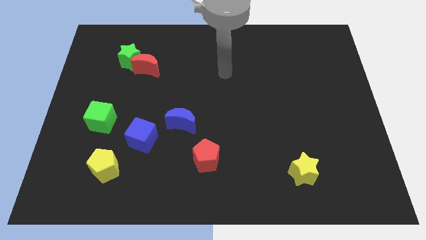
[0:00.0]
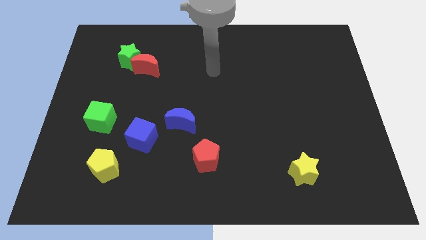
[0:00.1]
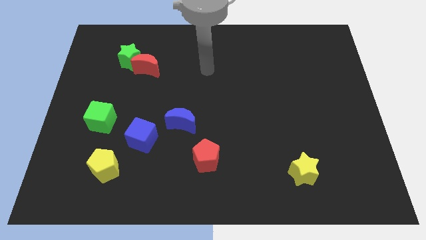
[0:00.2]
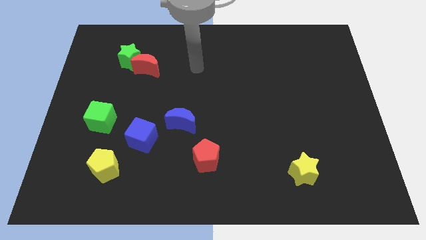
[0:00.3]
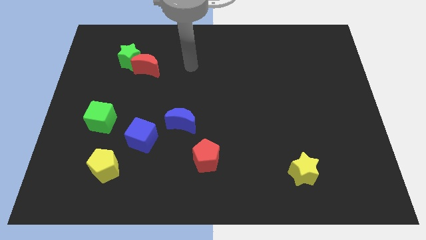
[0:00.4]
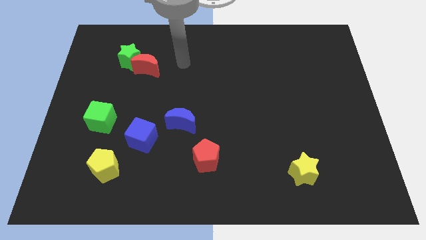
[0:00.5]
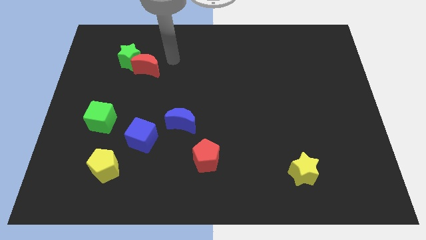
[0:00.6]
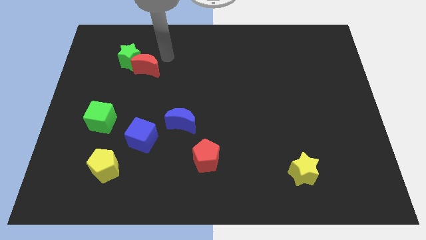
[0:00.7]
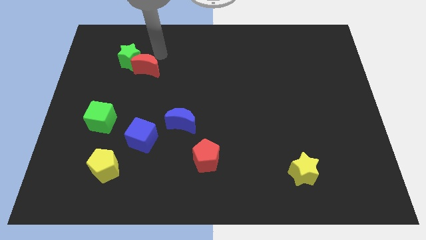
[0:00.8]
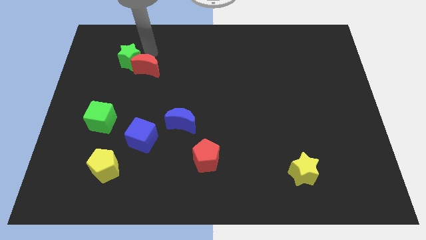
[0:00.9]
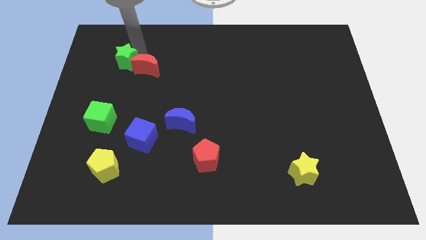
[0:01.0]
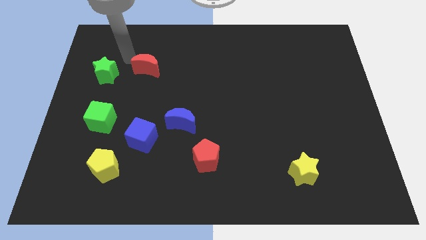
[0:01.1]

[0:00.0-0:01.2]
pull the red moon apart from the green star

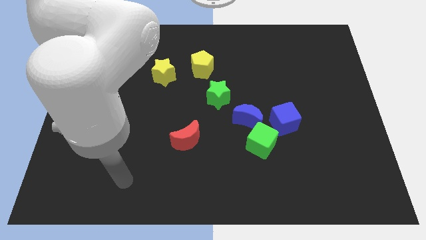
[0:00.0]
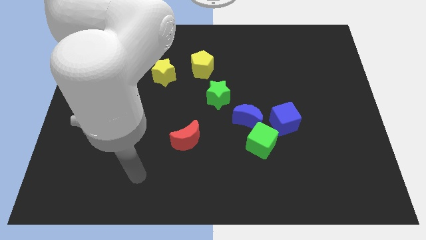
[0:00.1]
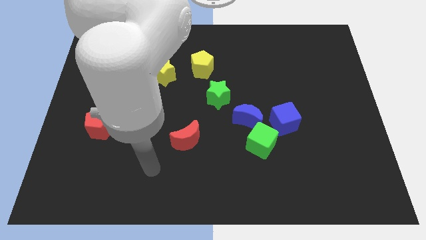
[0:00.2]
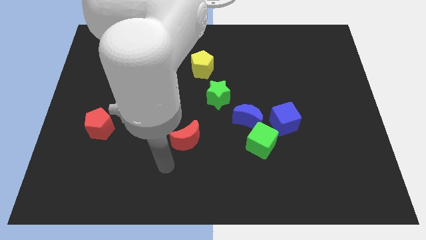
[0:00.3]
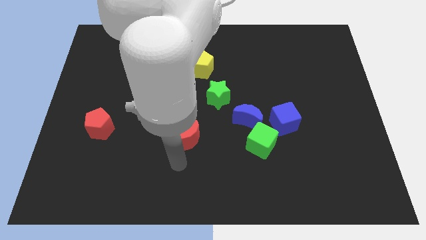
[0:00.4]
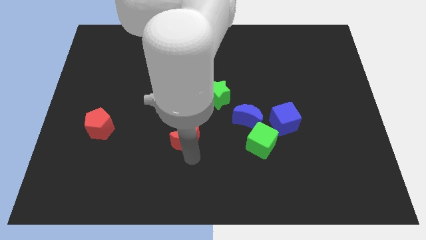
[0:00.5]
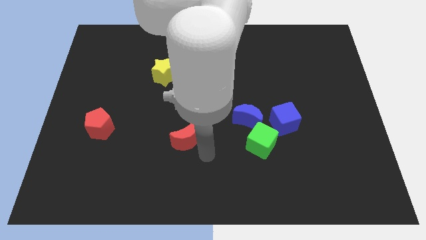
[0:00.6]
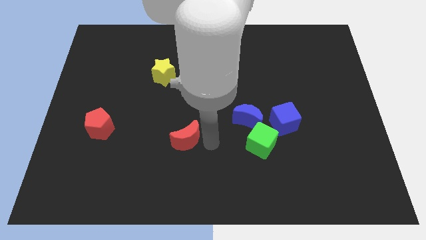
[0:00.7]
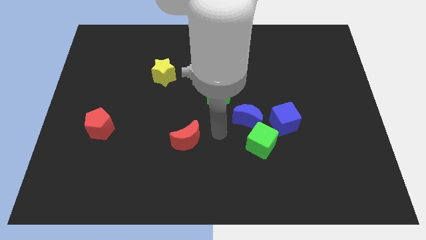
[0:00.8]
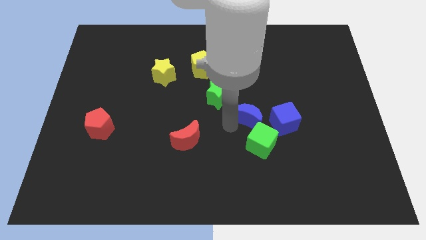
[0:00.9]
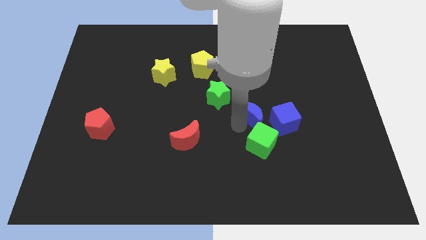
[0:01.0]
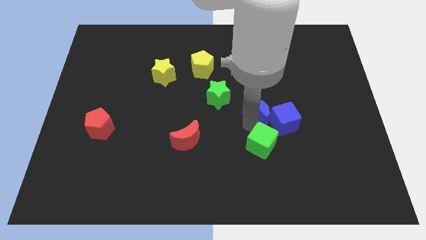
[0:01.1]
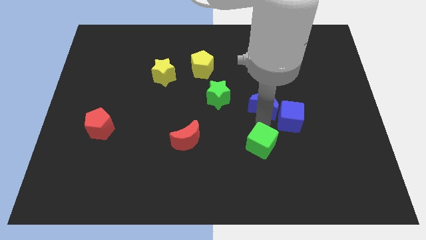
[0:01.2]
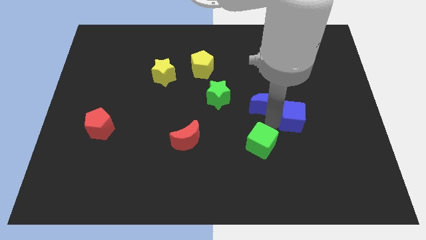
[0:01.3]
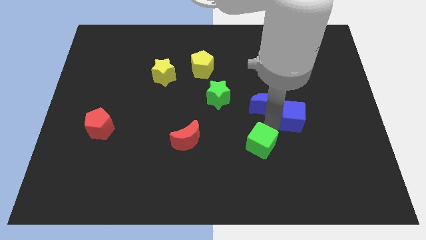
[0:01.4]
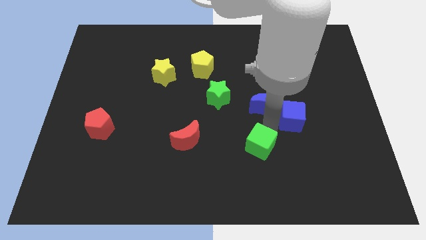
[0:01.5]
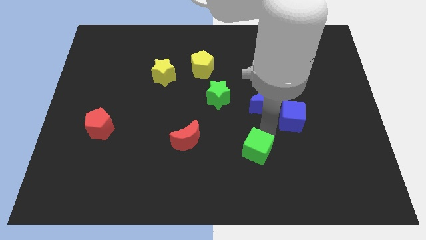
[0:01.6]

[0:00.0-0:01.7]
separate the green cube from the blue moon and blue cube

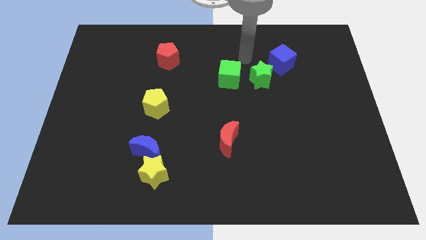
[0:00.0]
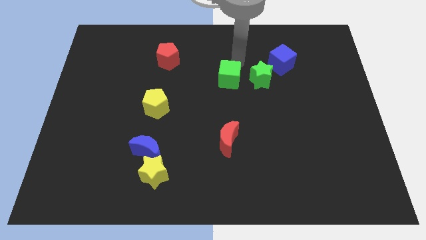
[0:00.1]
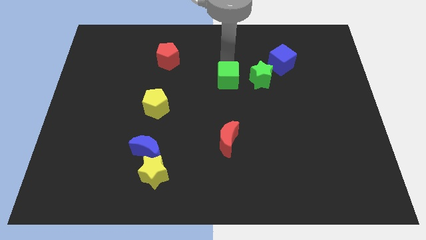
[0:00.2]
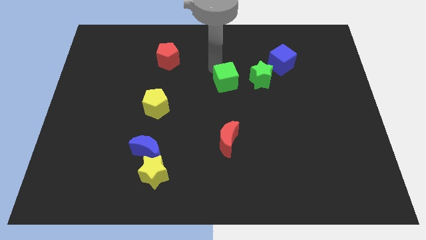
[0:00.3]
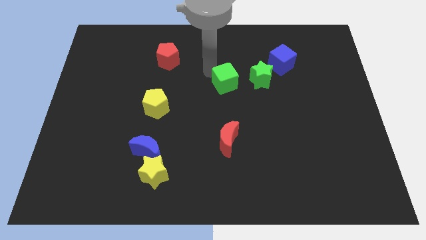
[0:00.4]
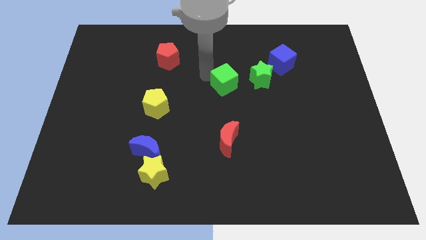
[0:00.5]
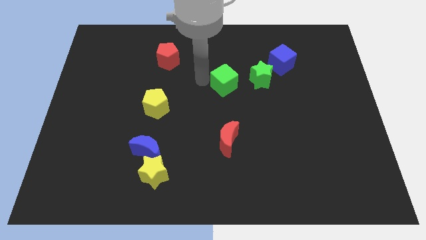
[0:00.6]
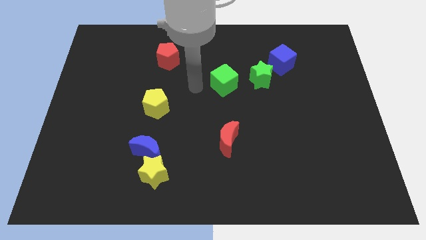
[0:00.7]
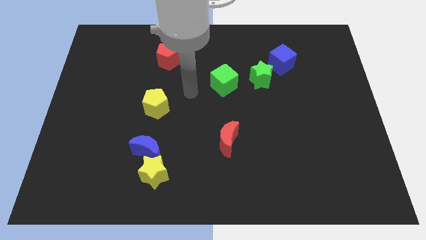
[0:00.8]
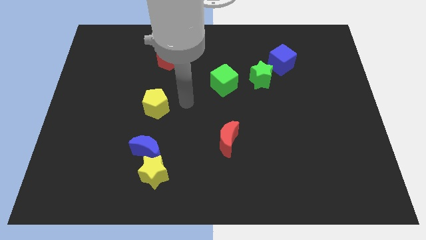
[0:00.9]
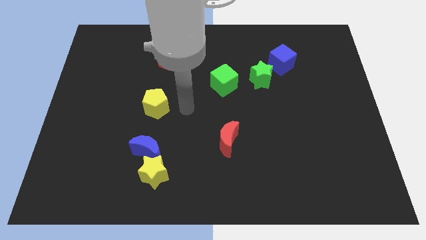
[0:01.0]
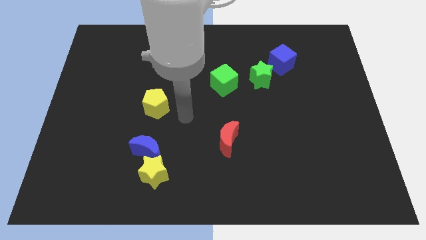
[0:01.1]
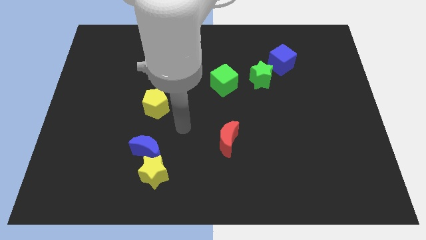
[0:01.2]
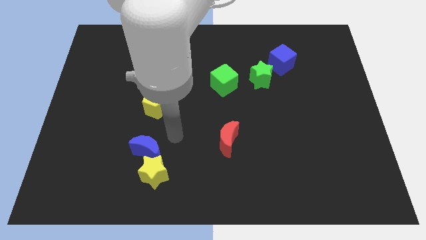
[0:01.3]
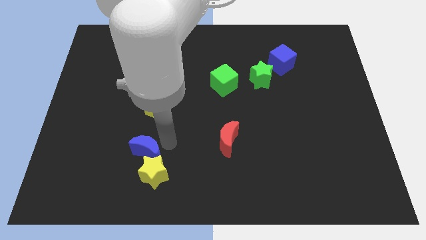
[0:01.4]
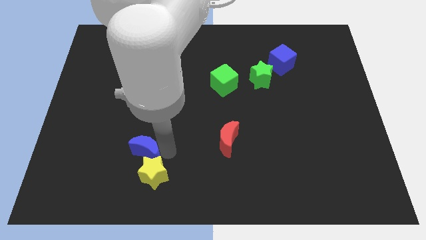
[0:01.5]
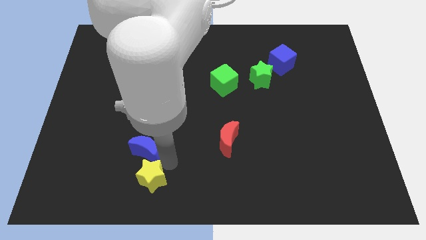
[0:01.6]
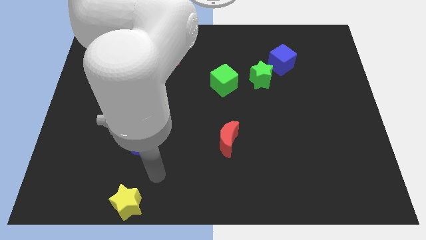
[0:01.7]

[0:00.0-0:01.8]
pull the blue moon apart from the yellow star

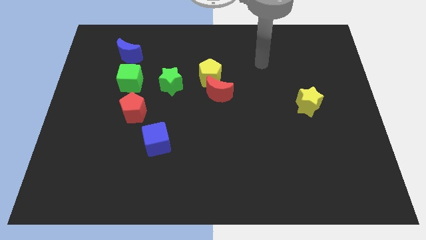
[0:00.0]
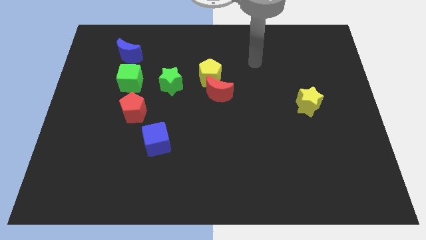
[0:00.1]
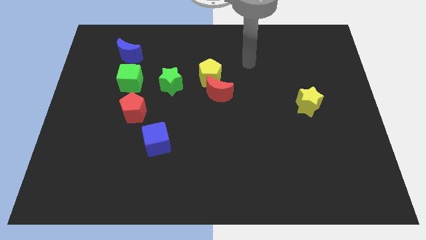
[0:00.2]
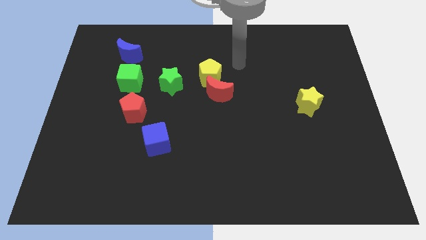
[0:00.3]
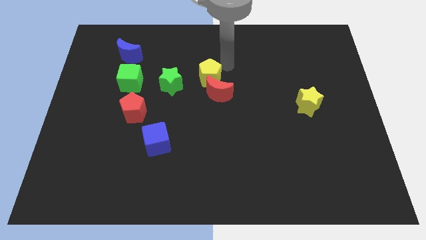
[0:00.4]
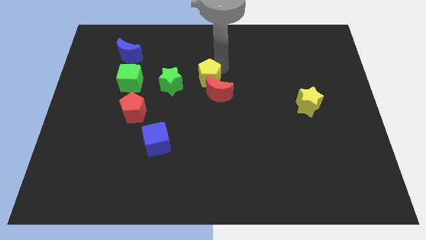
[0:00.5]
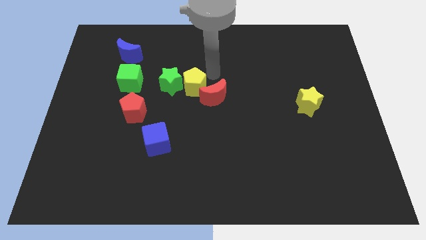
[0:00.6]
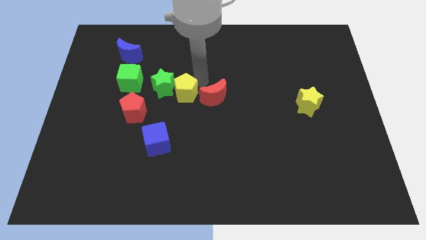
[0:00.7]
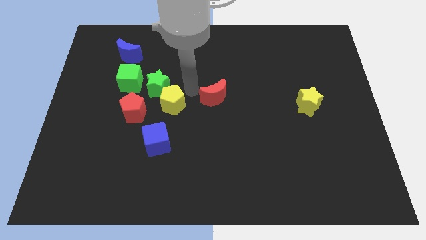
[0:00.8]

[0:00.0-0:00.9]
pull the red moon apart from the yellow pentagon

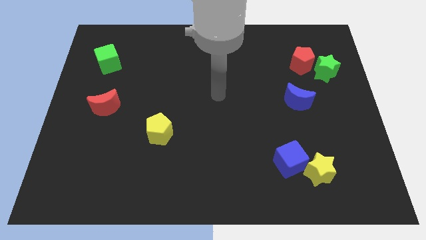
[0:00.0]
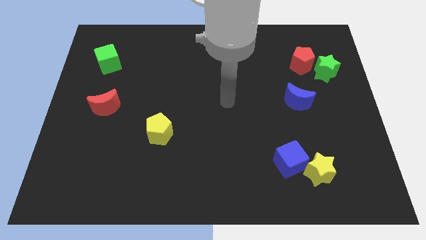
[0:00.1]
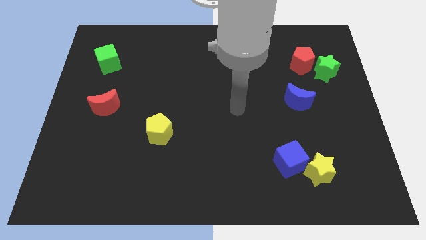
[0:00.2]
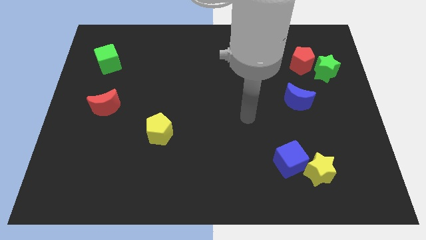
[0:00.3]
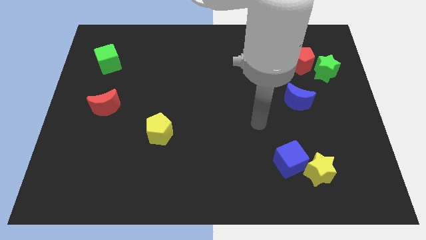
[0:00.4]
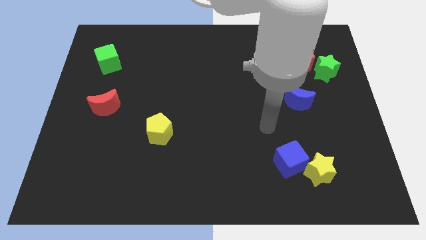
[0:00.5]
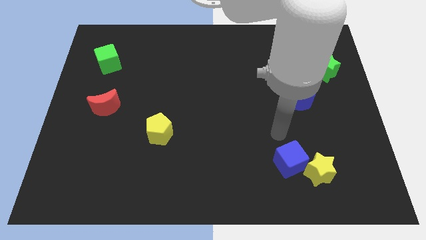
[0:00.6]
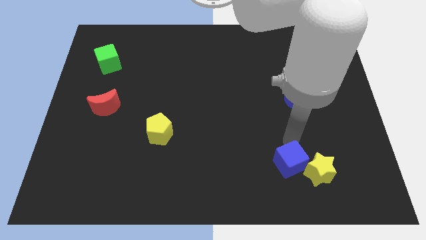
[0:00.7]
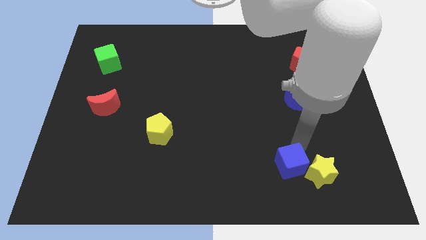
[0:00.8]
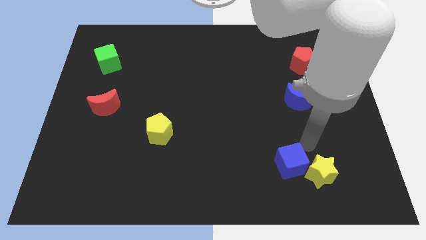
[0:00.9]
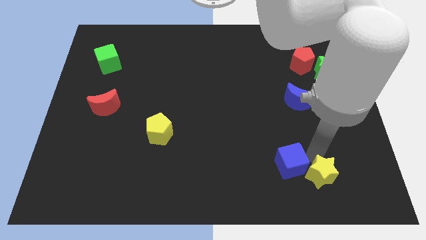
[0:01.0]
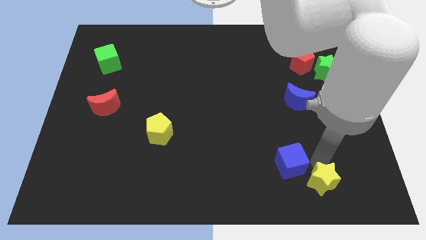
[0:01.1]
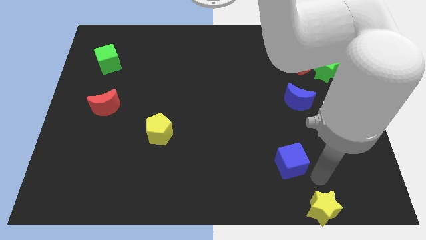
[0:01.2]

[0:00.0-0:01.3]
move the blue cube away from the yellow star

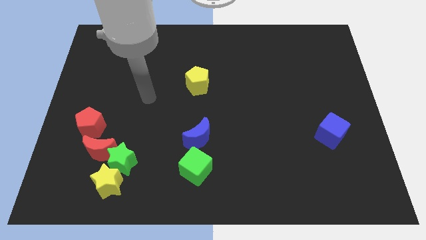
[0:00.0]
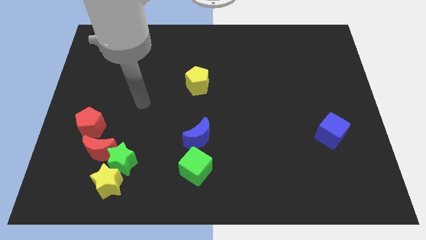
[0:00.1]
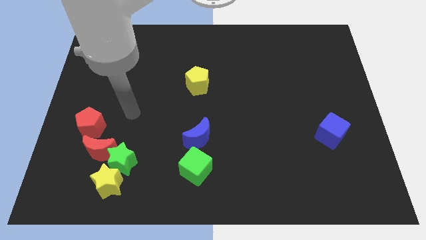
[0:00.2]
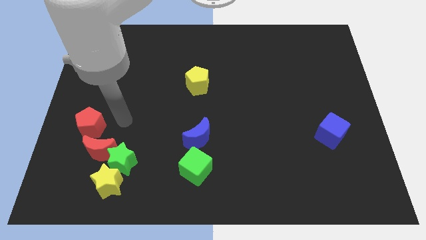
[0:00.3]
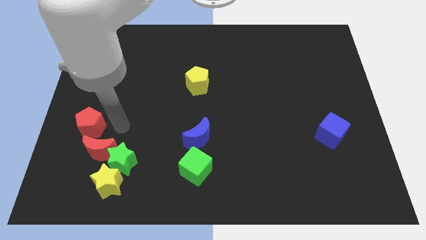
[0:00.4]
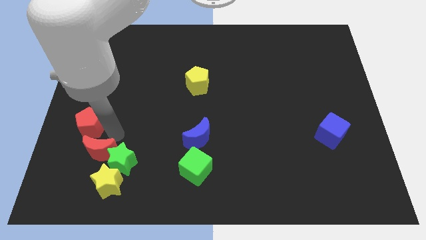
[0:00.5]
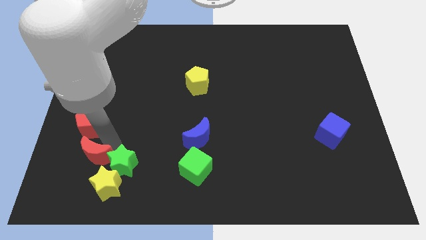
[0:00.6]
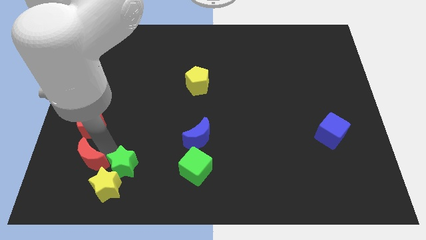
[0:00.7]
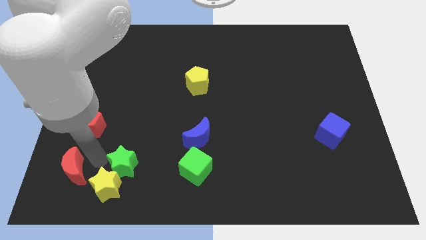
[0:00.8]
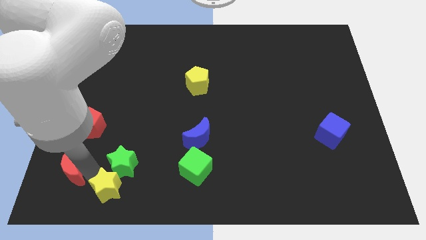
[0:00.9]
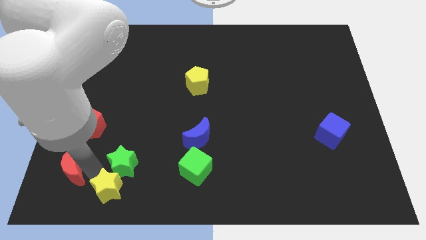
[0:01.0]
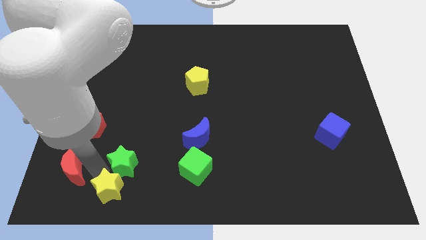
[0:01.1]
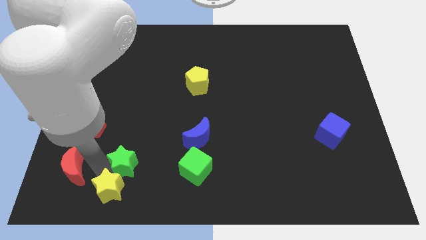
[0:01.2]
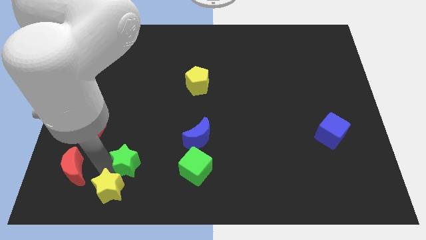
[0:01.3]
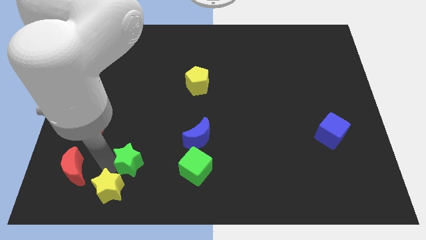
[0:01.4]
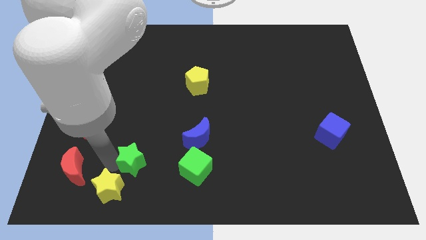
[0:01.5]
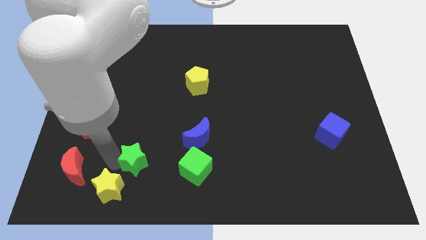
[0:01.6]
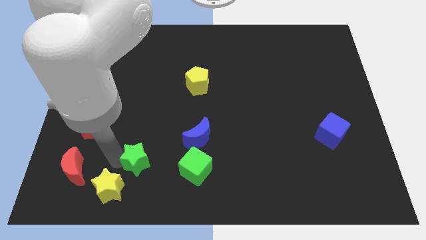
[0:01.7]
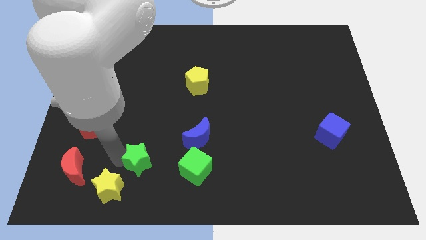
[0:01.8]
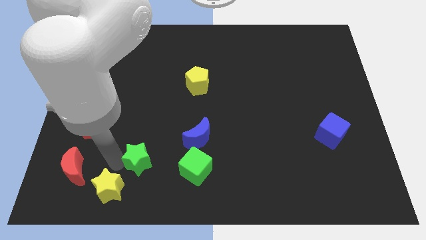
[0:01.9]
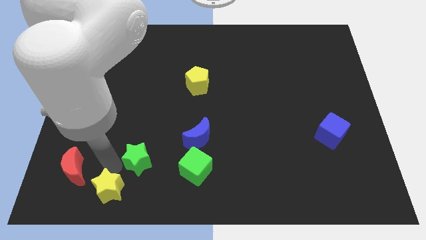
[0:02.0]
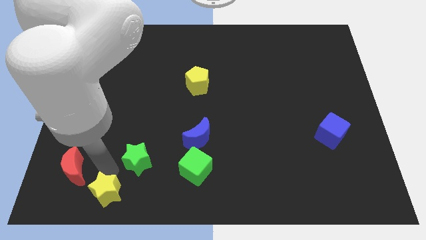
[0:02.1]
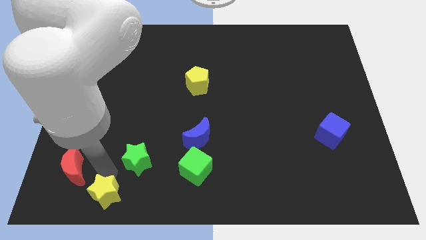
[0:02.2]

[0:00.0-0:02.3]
separate the green star from the yellow star and red moon
